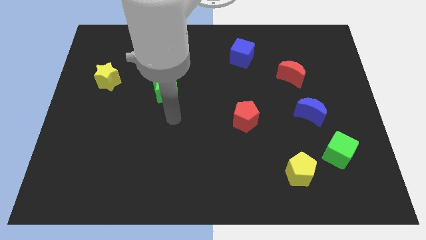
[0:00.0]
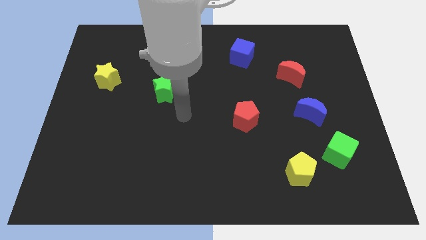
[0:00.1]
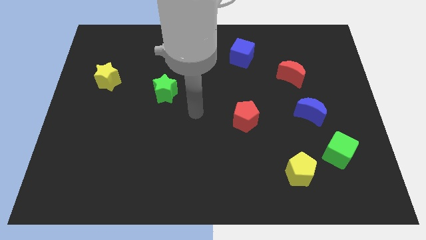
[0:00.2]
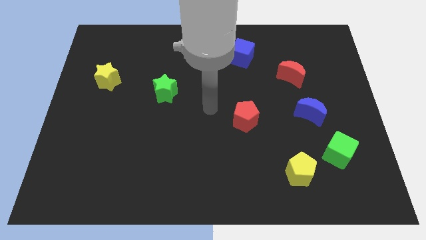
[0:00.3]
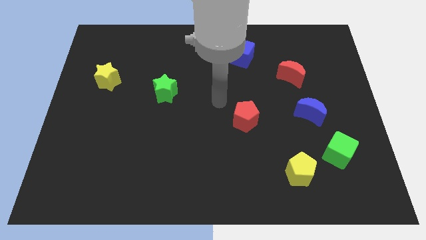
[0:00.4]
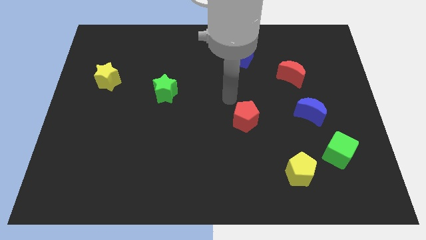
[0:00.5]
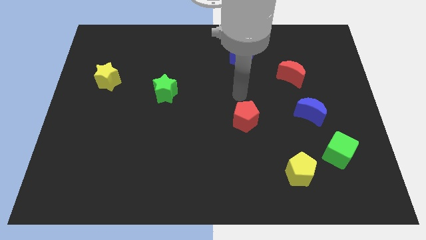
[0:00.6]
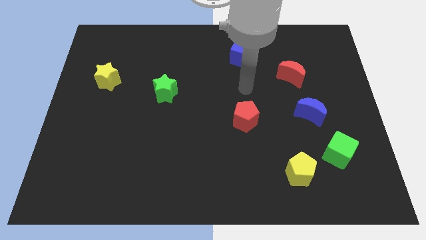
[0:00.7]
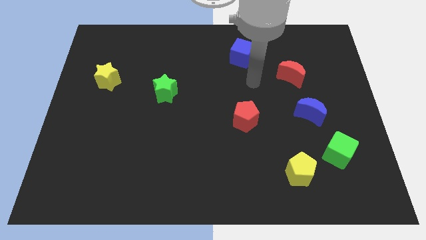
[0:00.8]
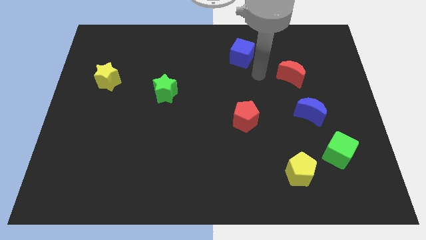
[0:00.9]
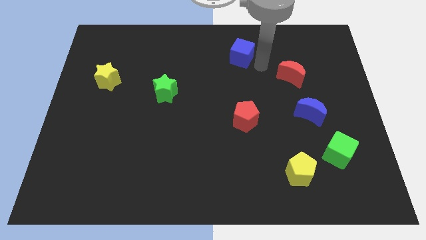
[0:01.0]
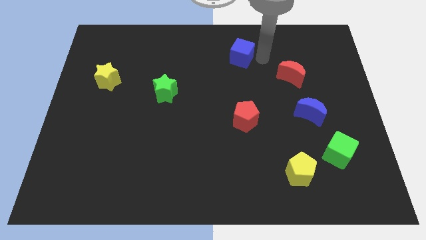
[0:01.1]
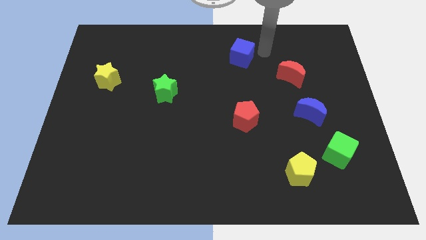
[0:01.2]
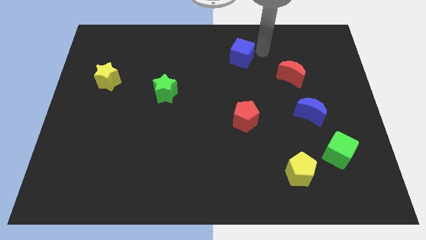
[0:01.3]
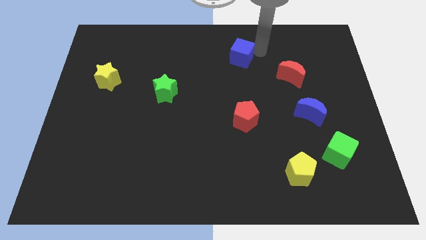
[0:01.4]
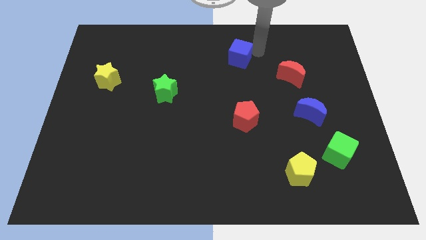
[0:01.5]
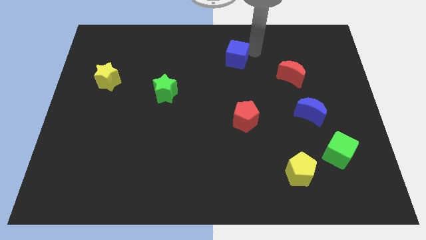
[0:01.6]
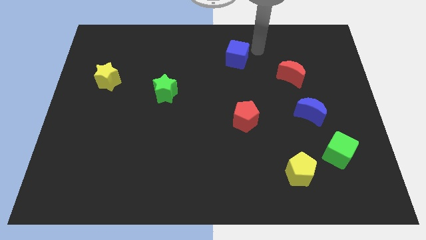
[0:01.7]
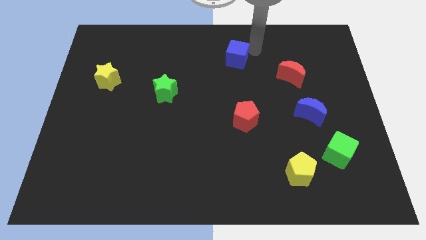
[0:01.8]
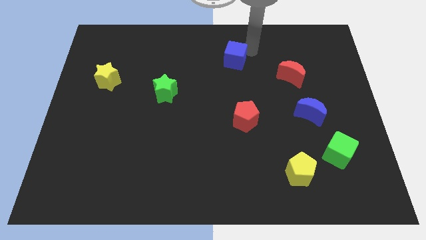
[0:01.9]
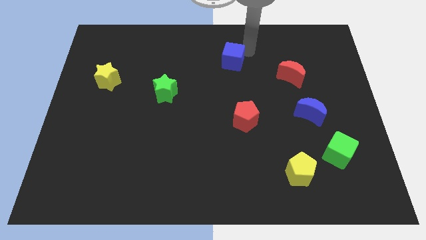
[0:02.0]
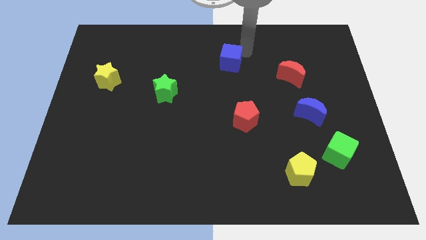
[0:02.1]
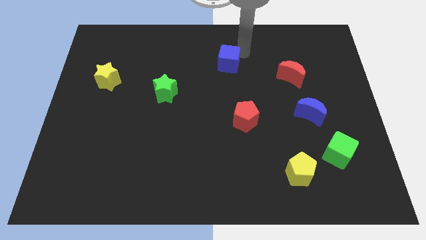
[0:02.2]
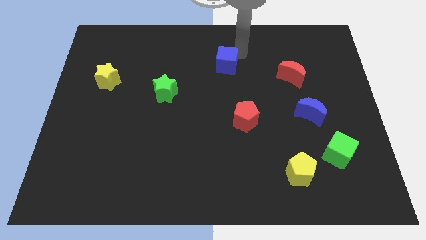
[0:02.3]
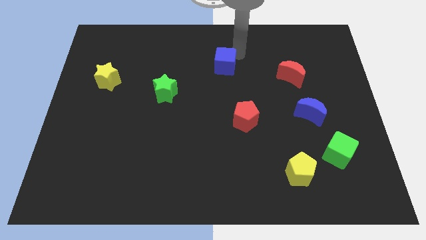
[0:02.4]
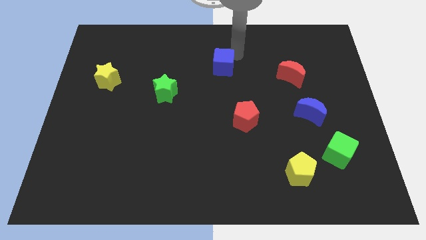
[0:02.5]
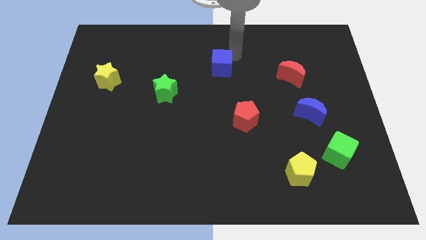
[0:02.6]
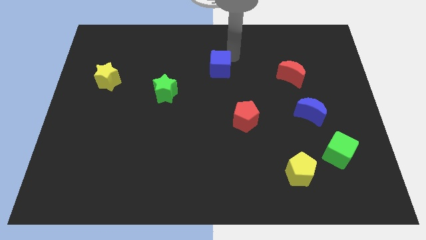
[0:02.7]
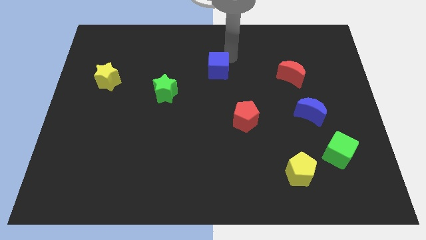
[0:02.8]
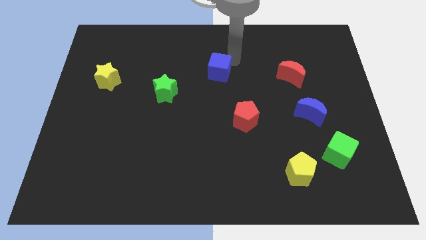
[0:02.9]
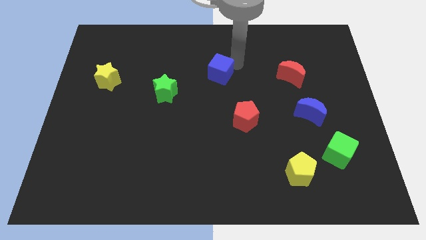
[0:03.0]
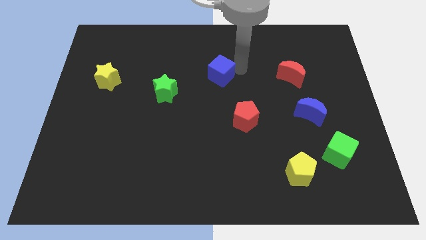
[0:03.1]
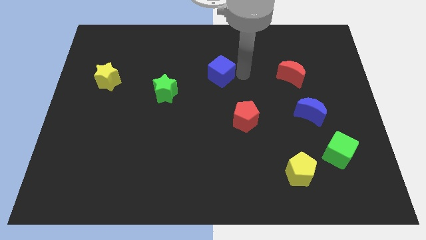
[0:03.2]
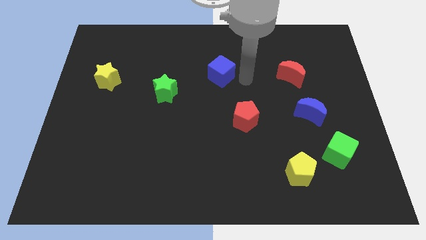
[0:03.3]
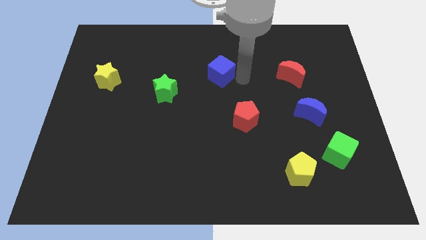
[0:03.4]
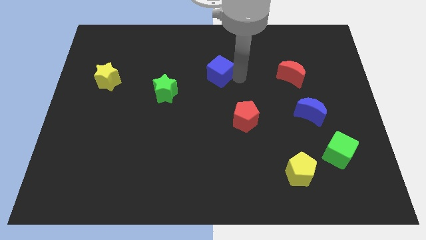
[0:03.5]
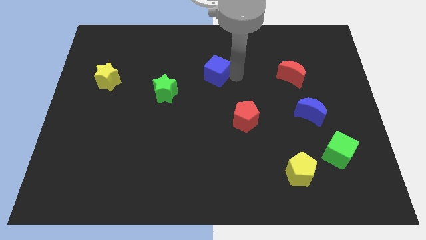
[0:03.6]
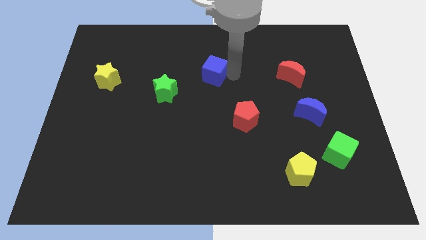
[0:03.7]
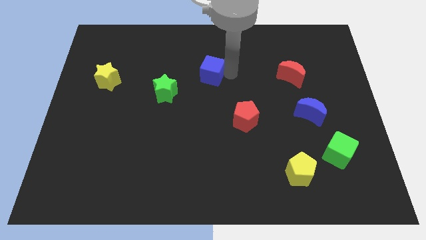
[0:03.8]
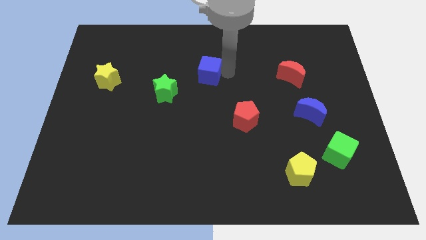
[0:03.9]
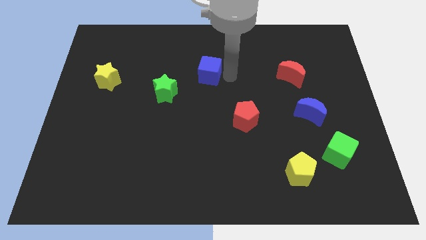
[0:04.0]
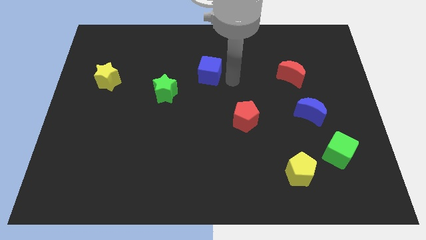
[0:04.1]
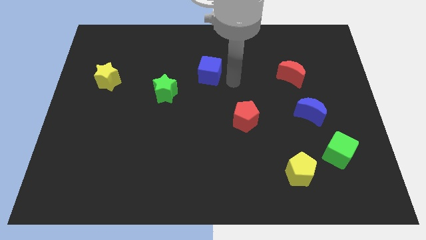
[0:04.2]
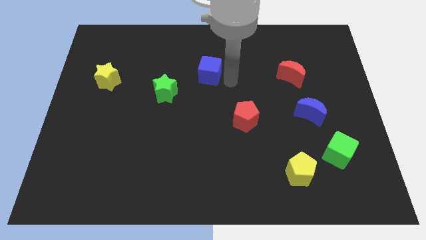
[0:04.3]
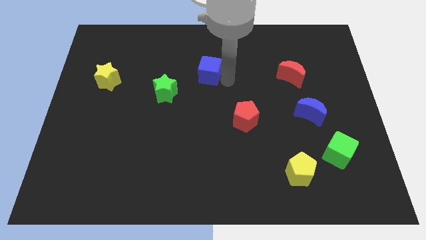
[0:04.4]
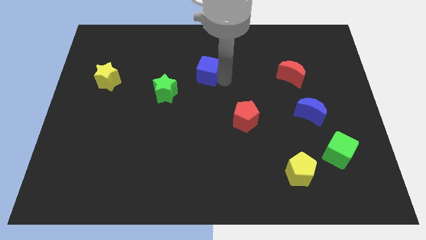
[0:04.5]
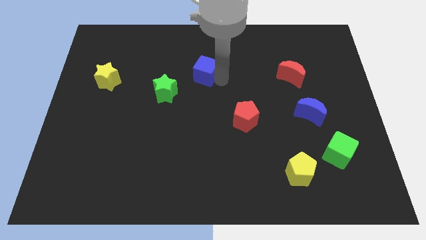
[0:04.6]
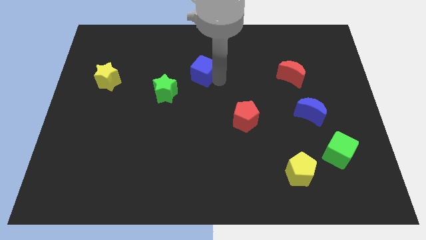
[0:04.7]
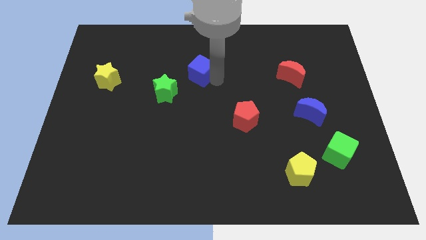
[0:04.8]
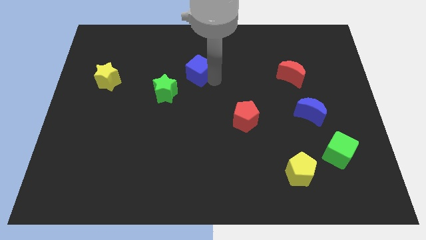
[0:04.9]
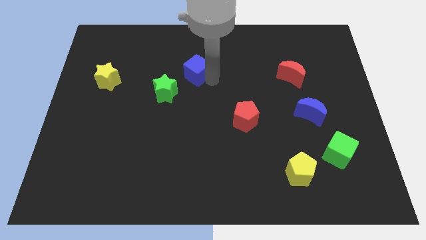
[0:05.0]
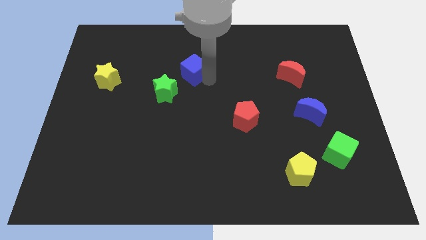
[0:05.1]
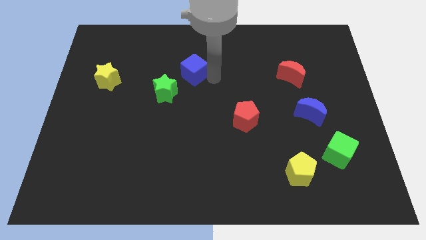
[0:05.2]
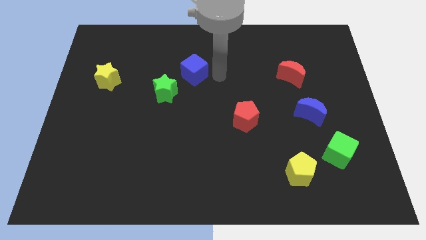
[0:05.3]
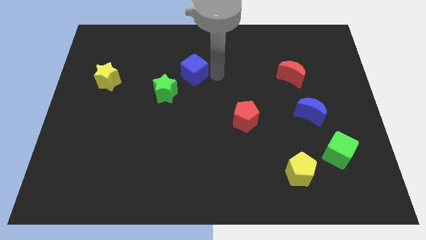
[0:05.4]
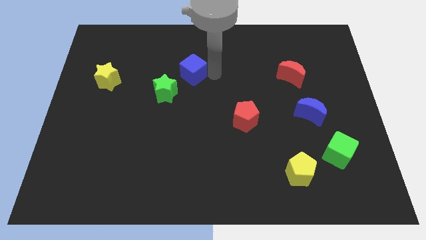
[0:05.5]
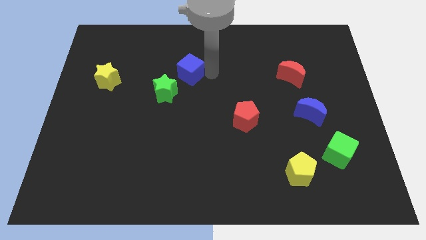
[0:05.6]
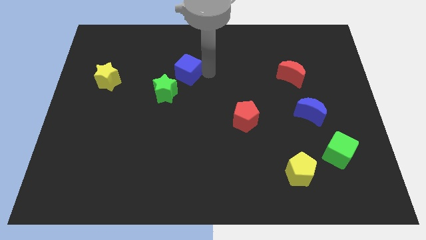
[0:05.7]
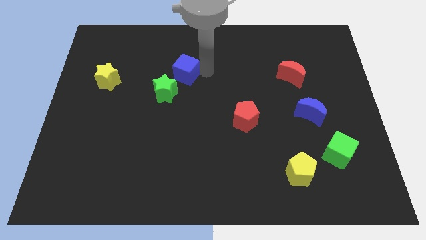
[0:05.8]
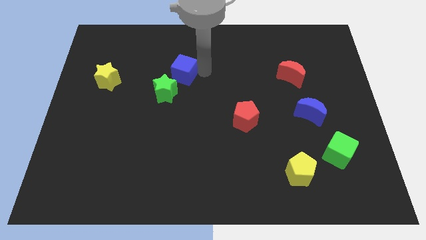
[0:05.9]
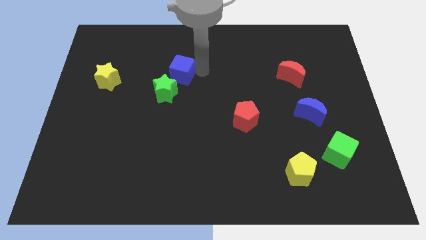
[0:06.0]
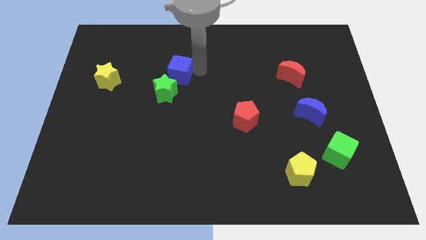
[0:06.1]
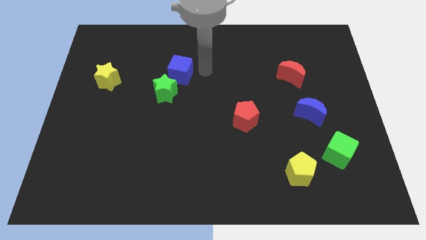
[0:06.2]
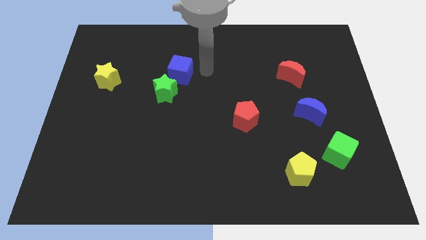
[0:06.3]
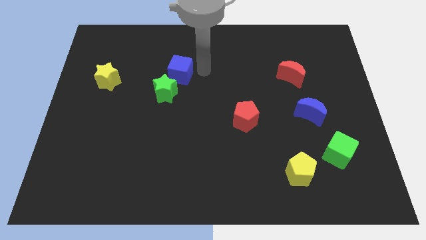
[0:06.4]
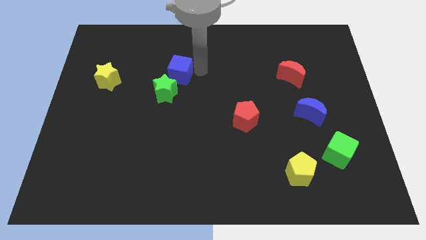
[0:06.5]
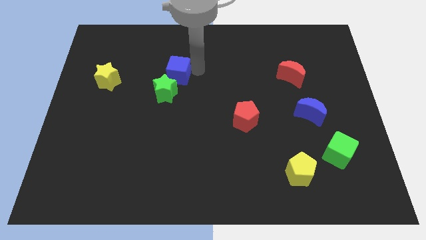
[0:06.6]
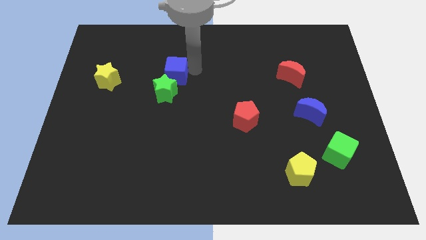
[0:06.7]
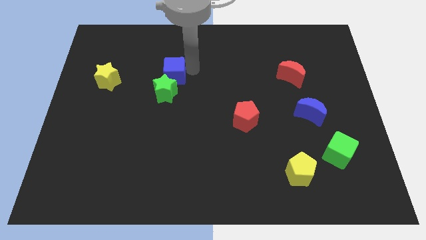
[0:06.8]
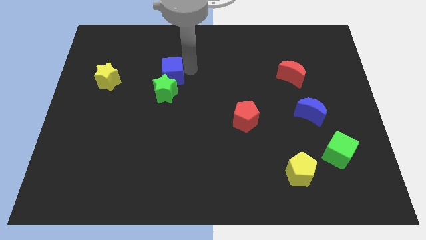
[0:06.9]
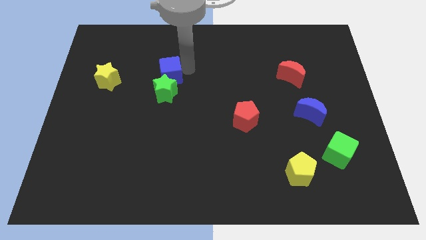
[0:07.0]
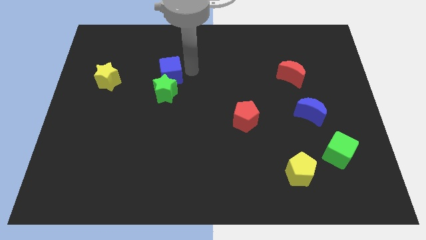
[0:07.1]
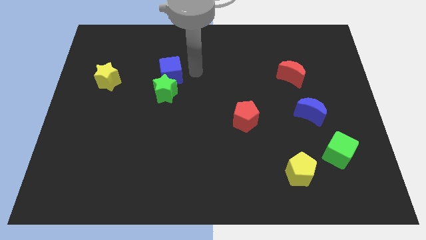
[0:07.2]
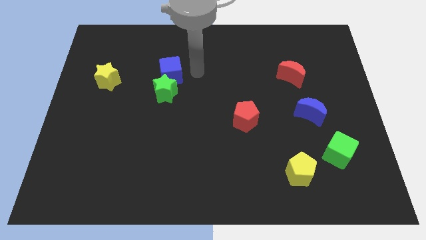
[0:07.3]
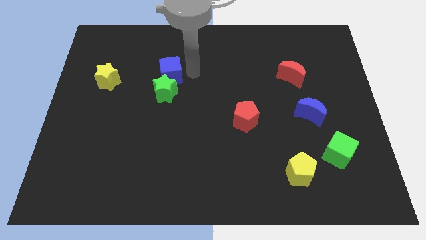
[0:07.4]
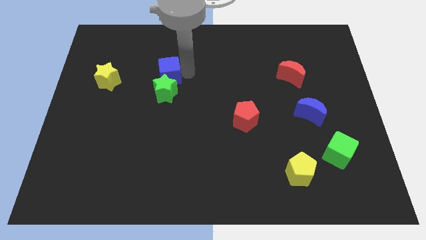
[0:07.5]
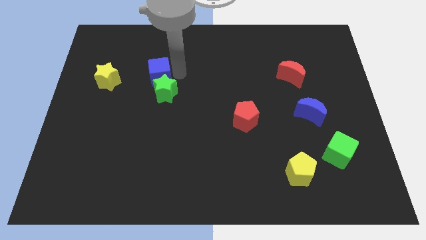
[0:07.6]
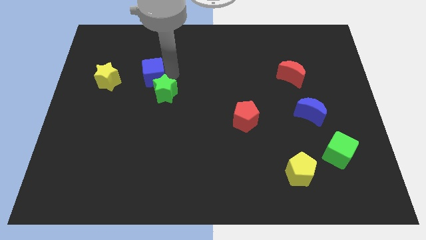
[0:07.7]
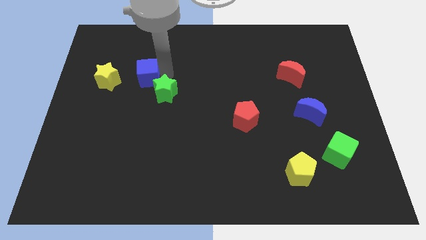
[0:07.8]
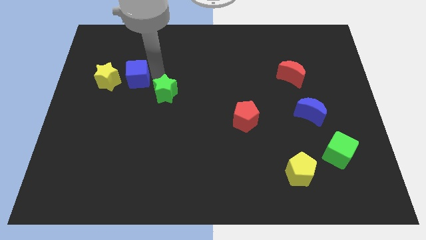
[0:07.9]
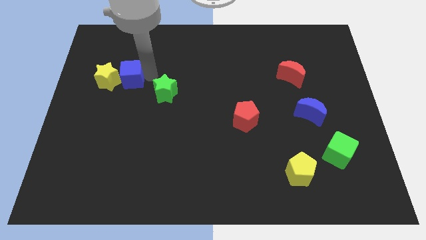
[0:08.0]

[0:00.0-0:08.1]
move the blue cube towards the yellow star
